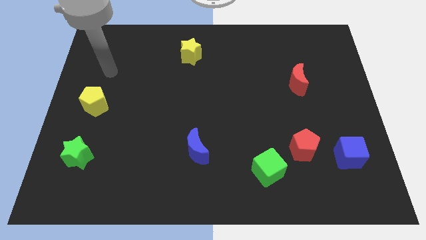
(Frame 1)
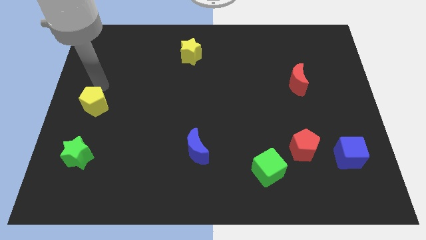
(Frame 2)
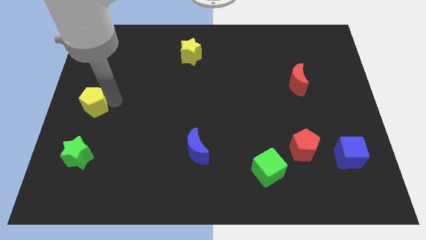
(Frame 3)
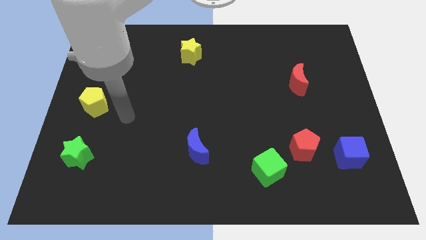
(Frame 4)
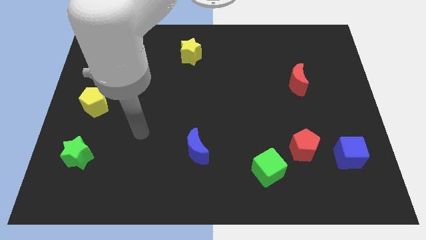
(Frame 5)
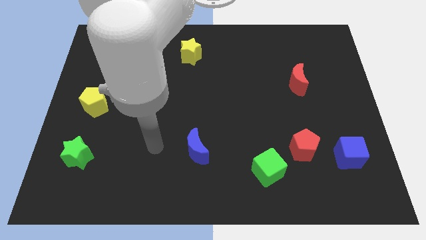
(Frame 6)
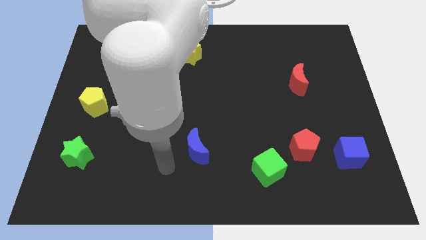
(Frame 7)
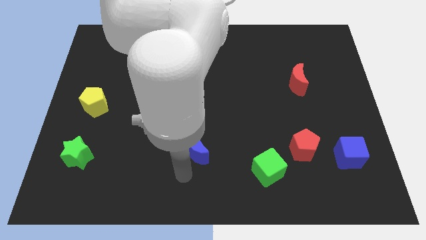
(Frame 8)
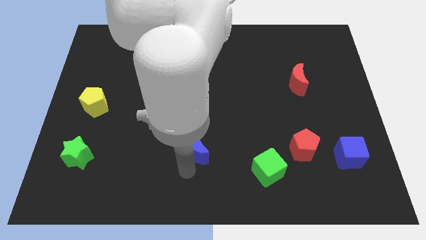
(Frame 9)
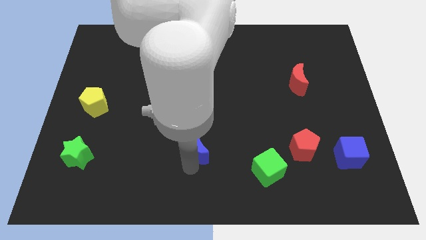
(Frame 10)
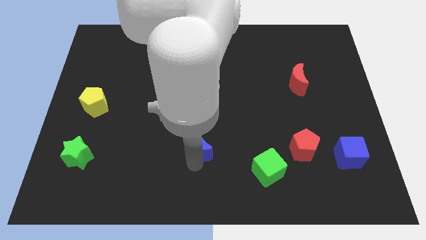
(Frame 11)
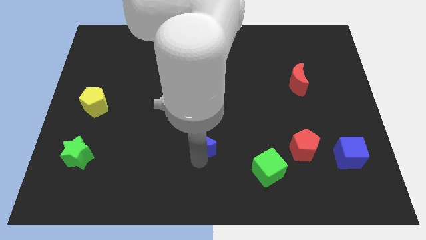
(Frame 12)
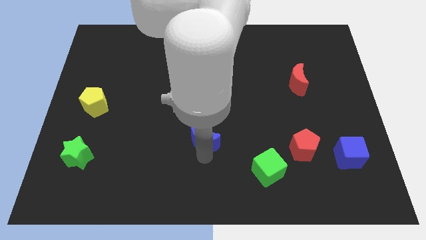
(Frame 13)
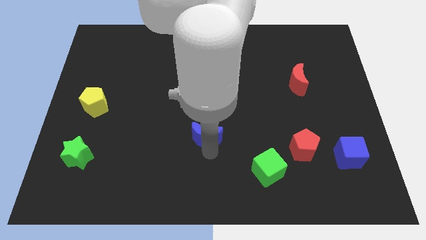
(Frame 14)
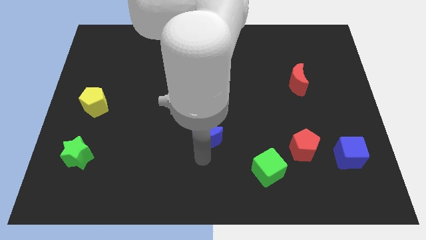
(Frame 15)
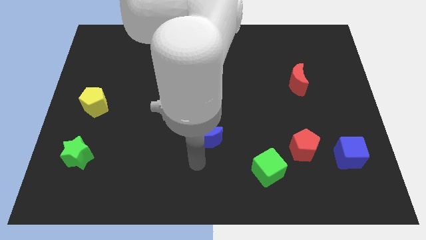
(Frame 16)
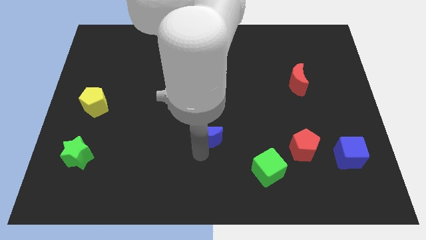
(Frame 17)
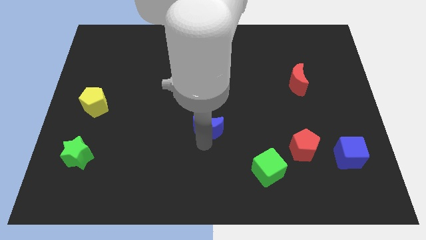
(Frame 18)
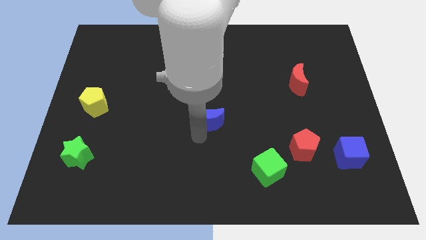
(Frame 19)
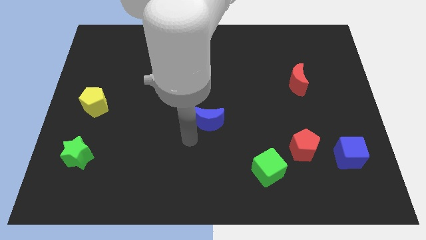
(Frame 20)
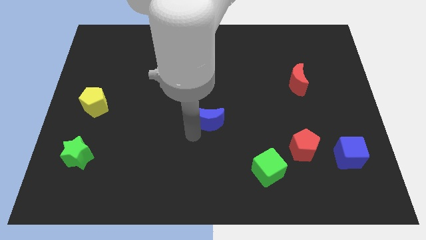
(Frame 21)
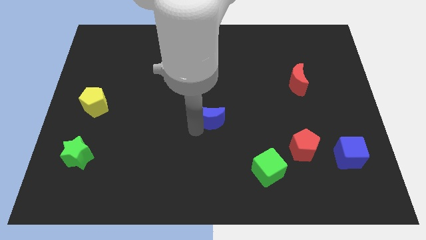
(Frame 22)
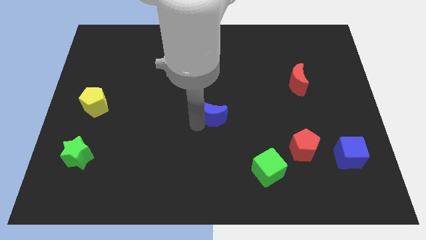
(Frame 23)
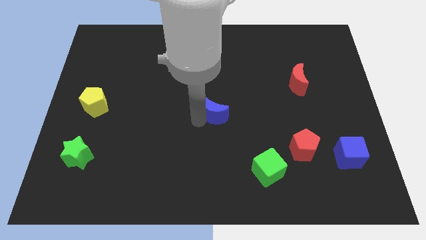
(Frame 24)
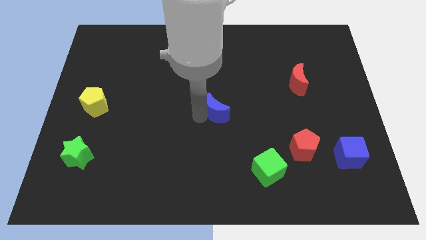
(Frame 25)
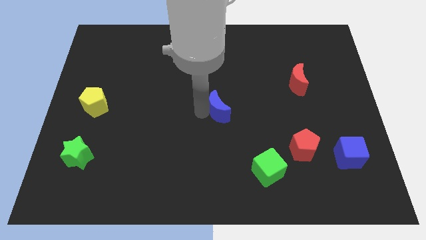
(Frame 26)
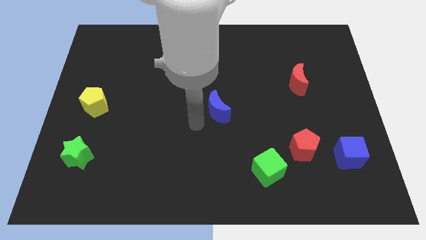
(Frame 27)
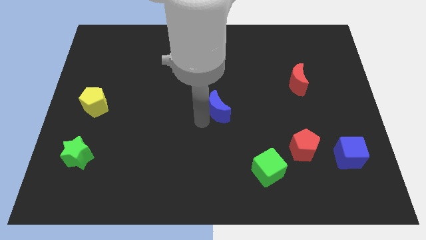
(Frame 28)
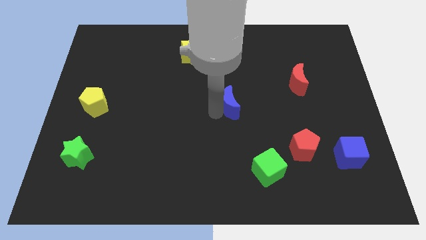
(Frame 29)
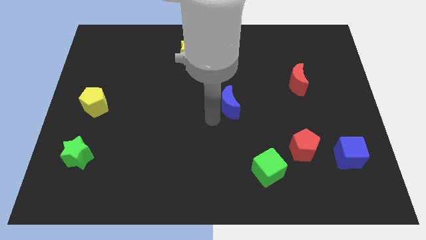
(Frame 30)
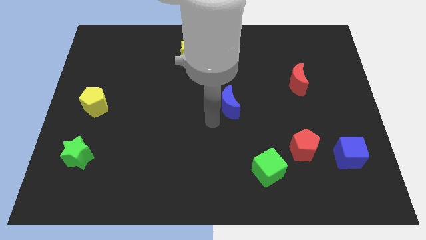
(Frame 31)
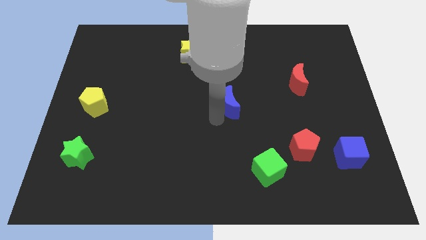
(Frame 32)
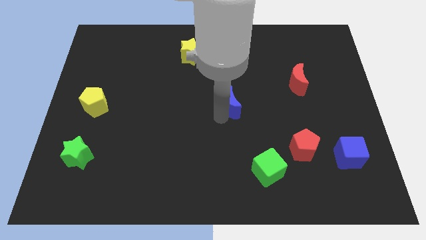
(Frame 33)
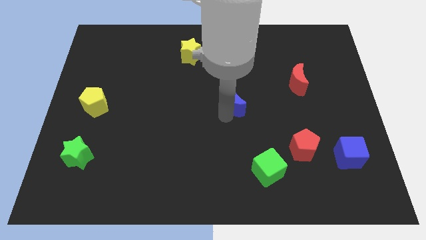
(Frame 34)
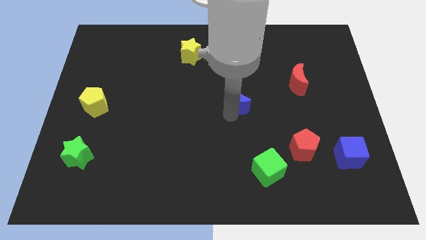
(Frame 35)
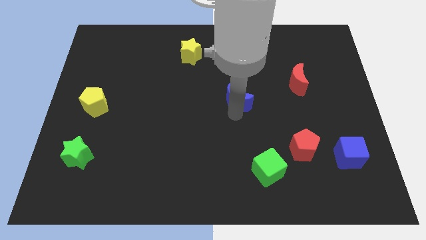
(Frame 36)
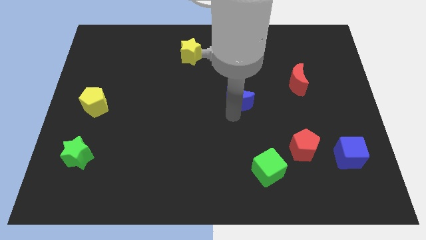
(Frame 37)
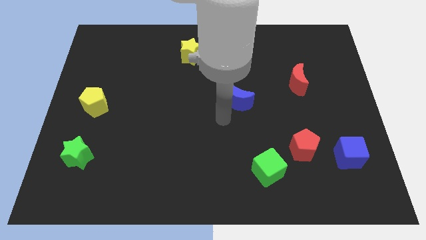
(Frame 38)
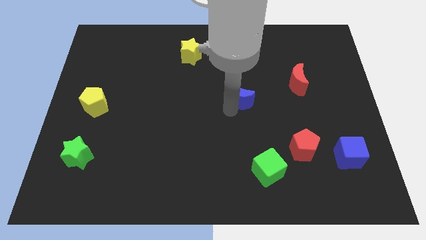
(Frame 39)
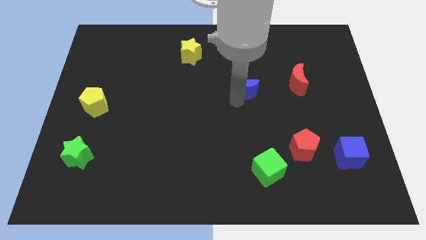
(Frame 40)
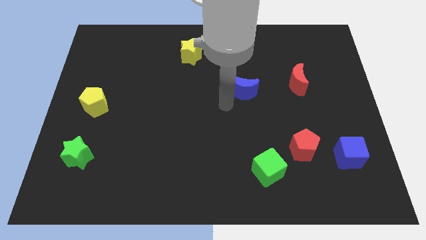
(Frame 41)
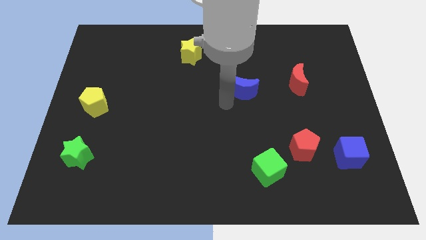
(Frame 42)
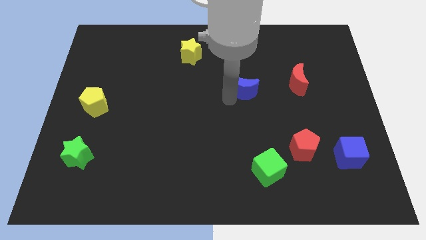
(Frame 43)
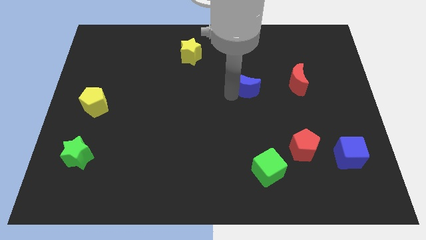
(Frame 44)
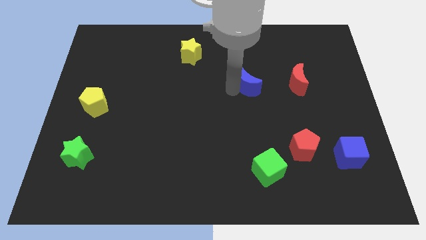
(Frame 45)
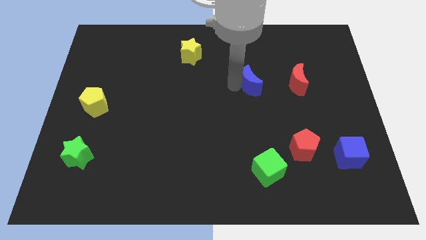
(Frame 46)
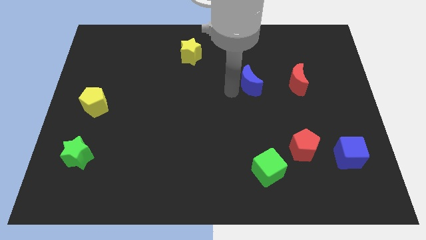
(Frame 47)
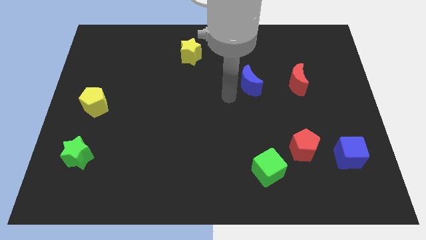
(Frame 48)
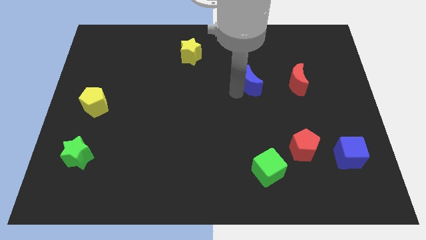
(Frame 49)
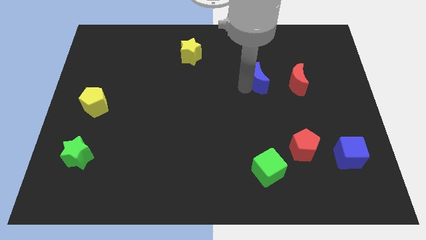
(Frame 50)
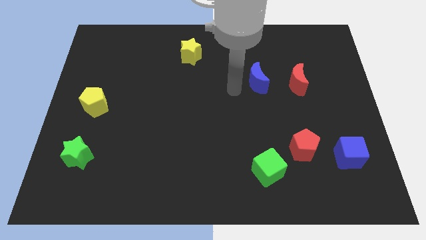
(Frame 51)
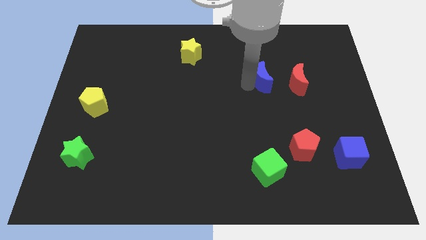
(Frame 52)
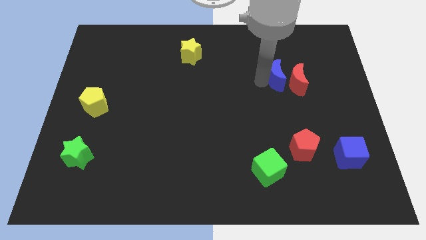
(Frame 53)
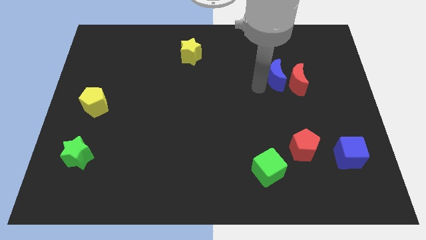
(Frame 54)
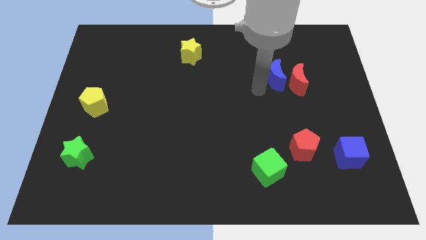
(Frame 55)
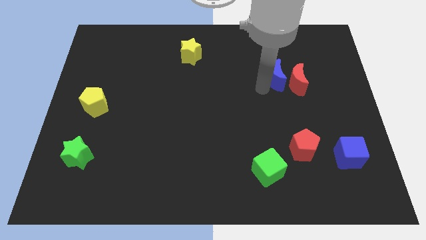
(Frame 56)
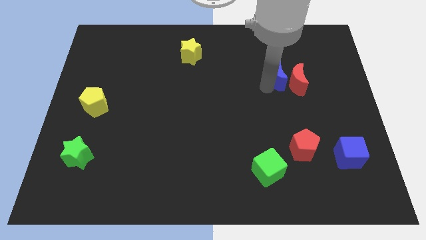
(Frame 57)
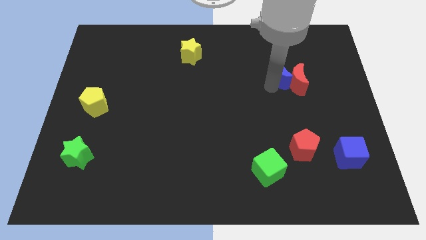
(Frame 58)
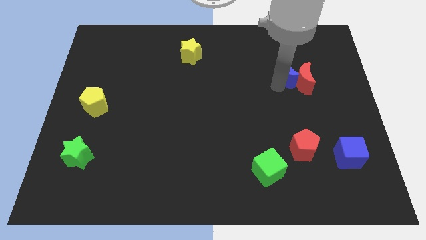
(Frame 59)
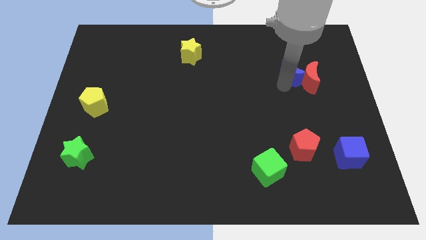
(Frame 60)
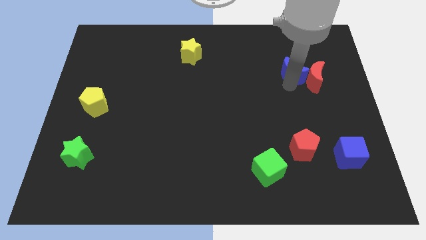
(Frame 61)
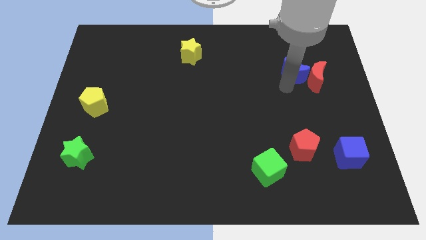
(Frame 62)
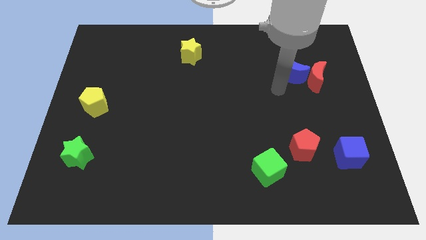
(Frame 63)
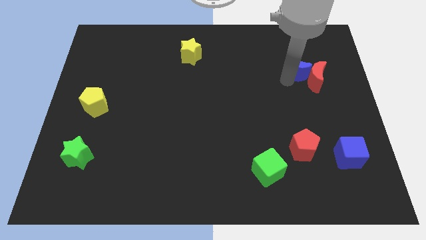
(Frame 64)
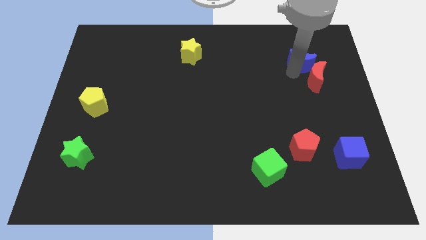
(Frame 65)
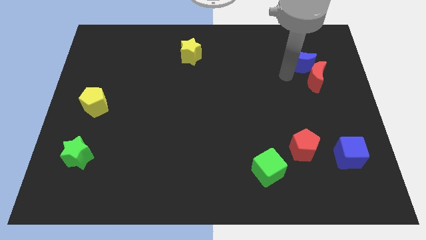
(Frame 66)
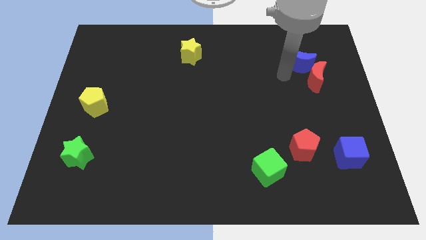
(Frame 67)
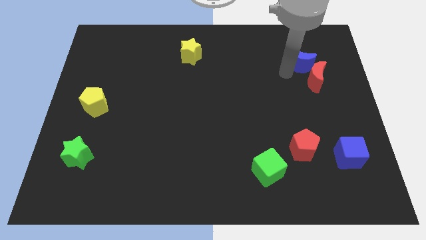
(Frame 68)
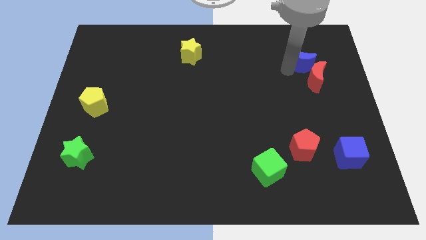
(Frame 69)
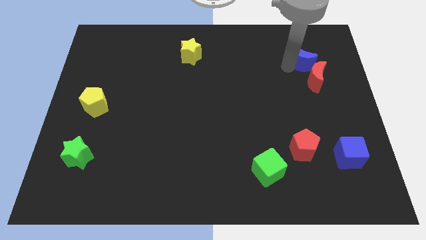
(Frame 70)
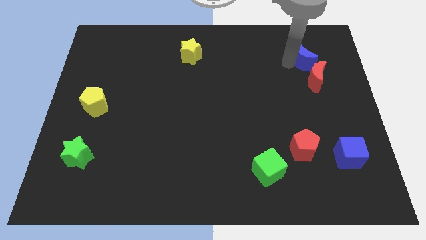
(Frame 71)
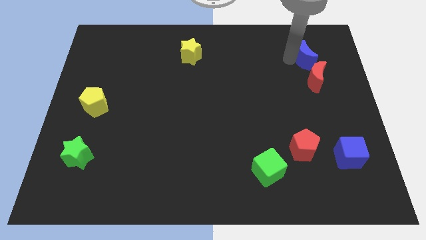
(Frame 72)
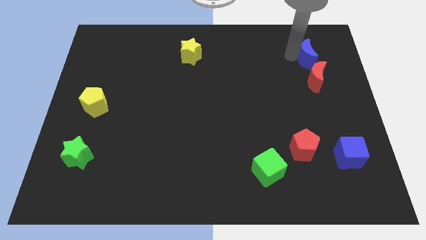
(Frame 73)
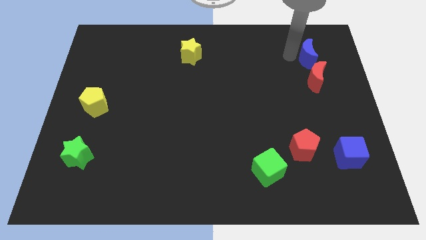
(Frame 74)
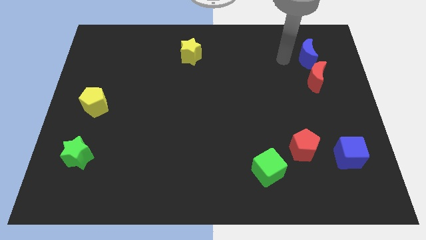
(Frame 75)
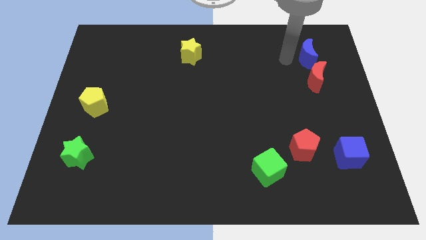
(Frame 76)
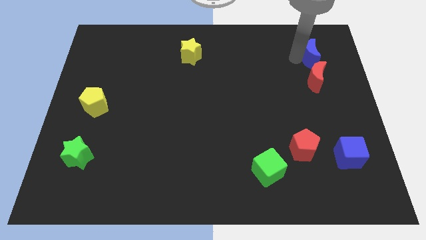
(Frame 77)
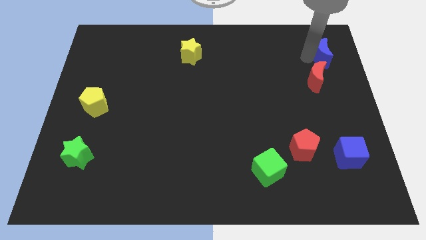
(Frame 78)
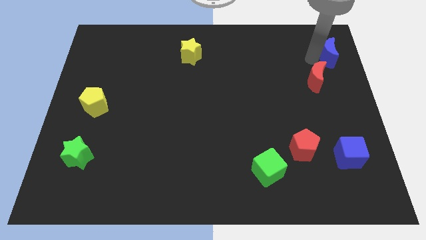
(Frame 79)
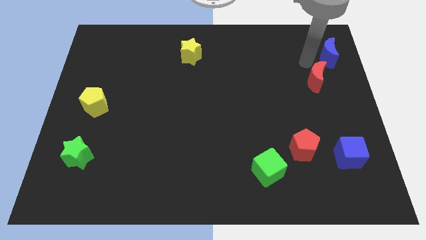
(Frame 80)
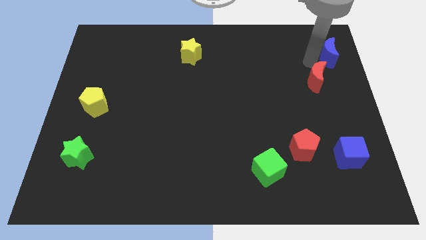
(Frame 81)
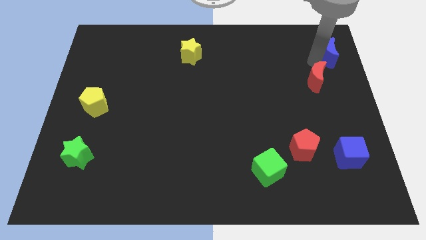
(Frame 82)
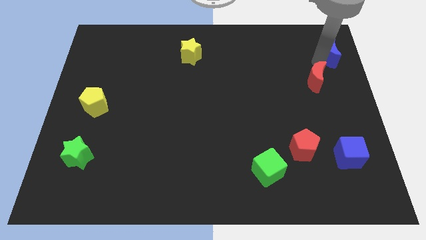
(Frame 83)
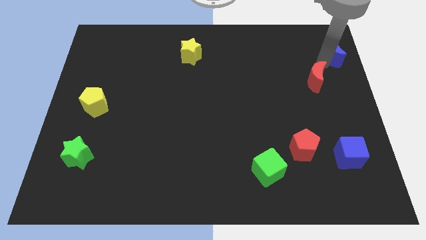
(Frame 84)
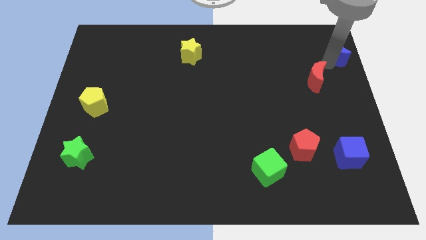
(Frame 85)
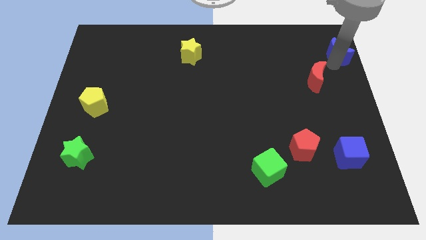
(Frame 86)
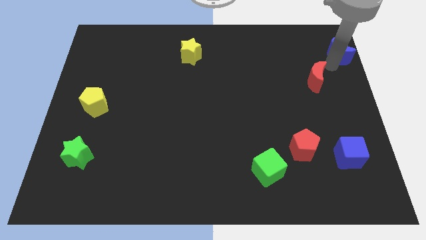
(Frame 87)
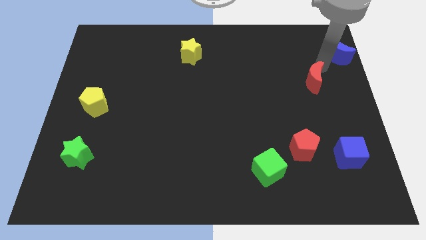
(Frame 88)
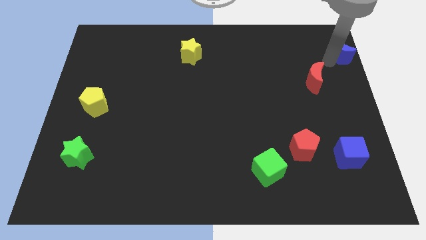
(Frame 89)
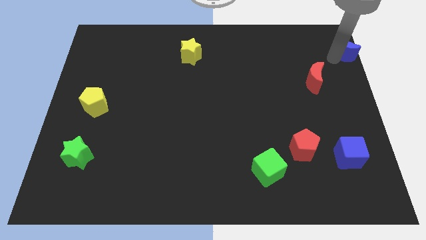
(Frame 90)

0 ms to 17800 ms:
put the blue moon to the top right
